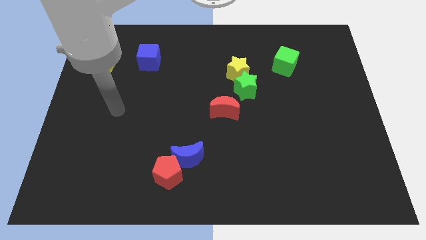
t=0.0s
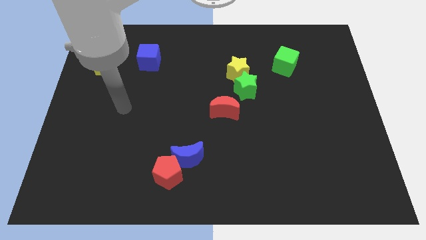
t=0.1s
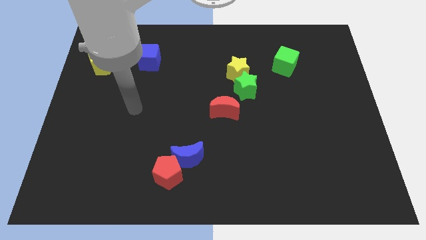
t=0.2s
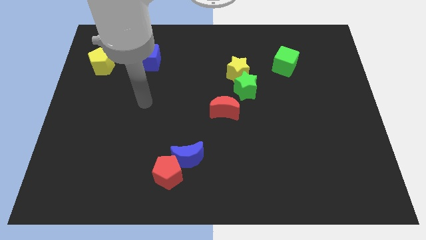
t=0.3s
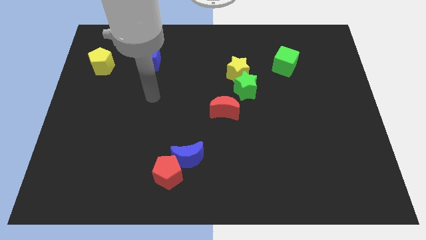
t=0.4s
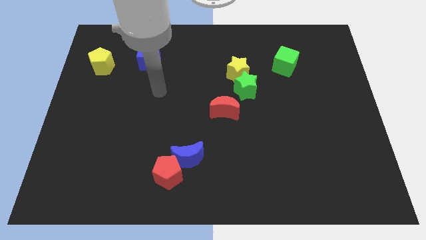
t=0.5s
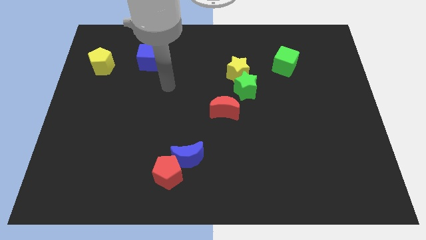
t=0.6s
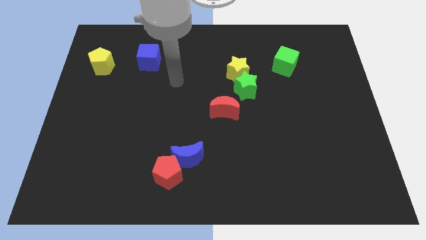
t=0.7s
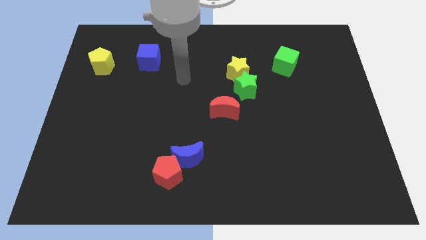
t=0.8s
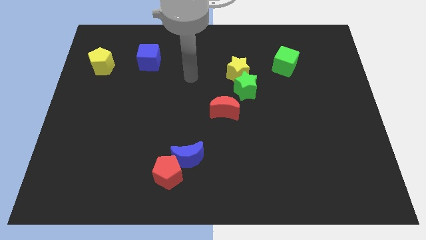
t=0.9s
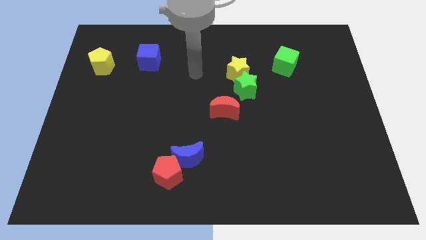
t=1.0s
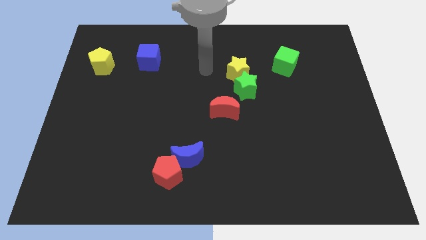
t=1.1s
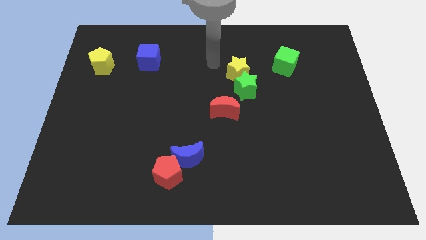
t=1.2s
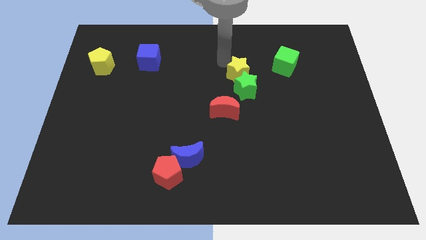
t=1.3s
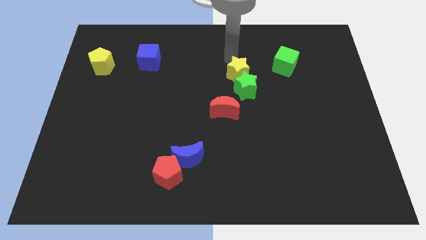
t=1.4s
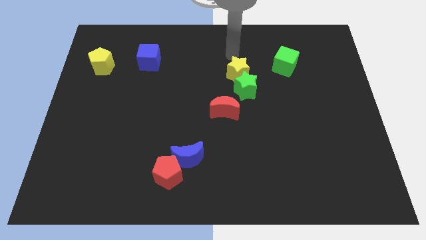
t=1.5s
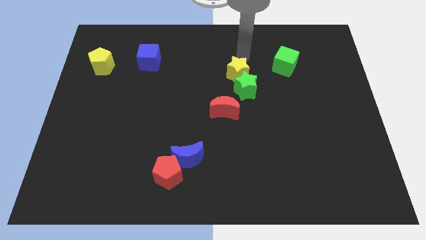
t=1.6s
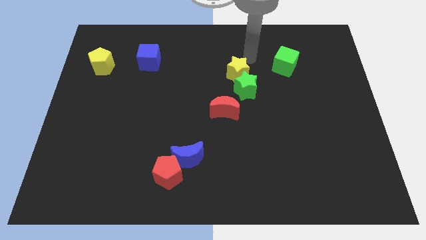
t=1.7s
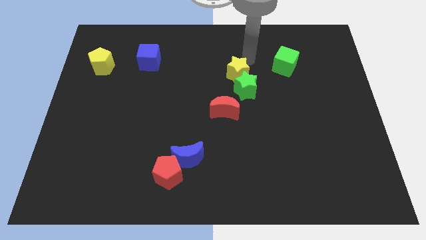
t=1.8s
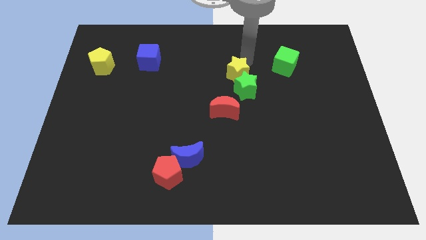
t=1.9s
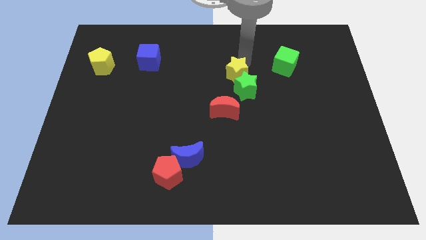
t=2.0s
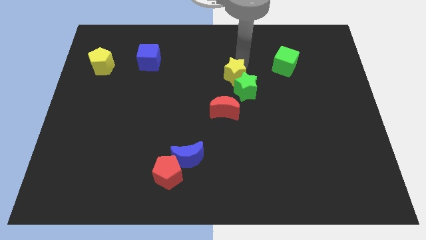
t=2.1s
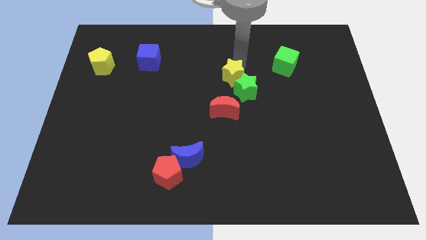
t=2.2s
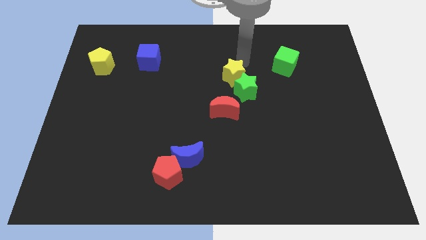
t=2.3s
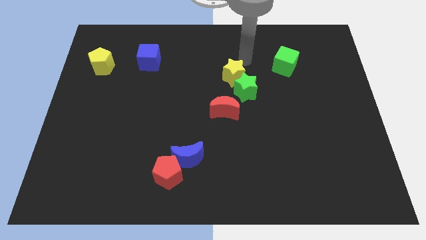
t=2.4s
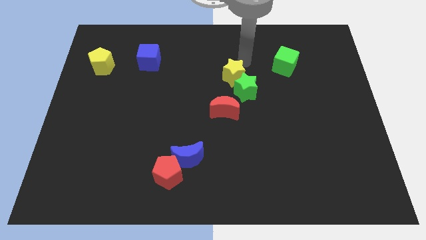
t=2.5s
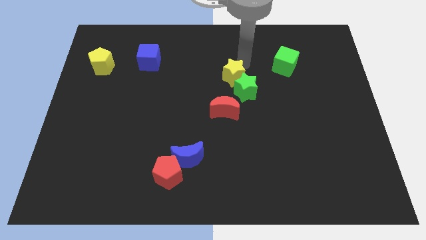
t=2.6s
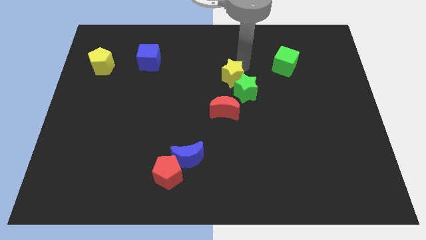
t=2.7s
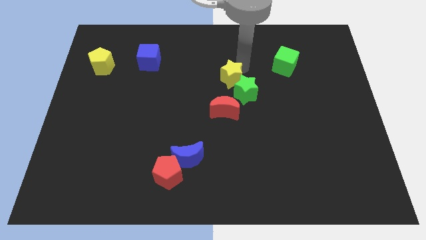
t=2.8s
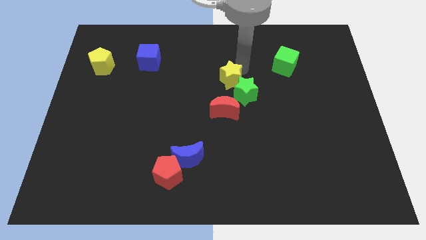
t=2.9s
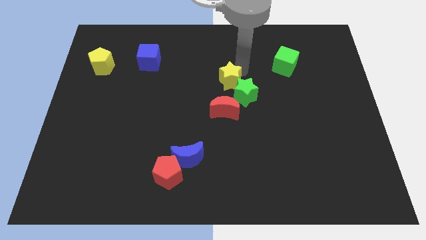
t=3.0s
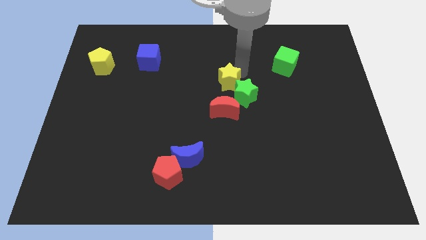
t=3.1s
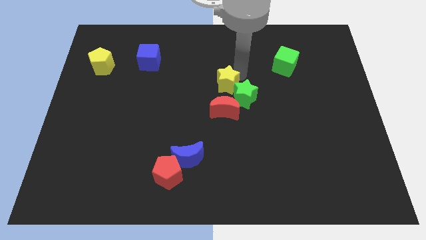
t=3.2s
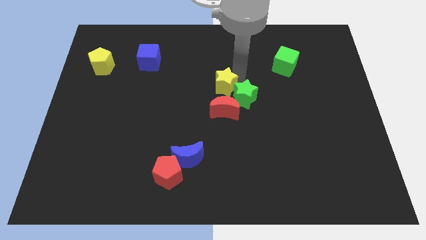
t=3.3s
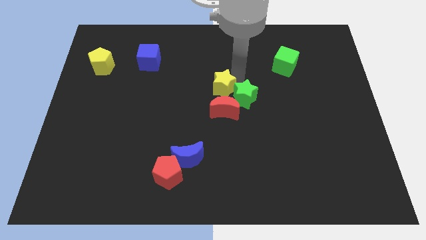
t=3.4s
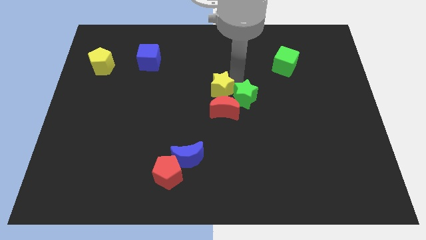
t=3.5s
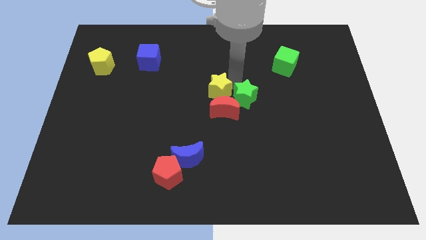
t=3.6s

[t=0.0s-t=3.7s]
slightly slide the yellow star down and left diagonally

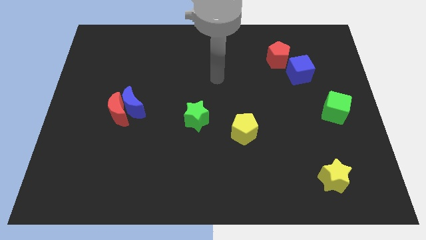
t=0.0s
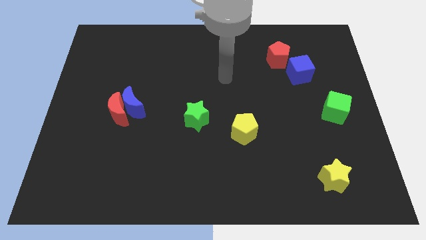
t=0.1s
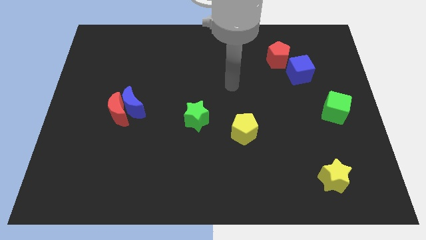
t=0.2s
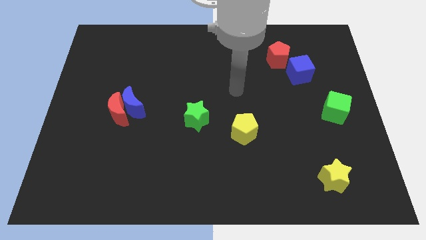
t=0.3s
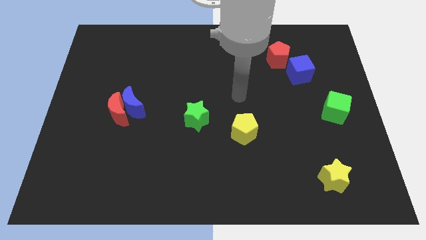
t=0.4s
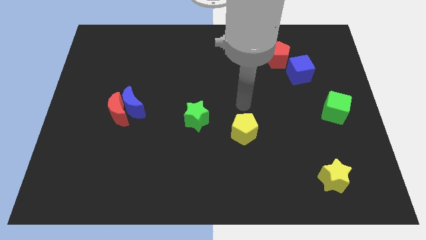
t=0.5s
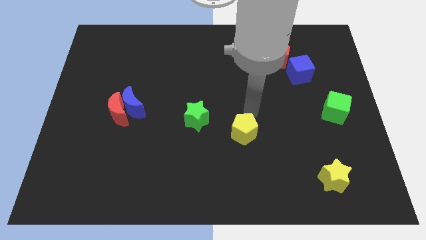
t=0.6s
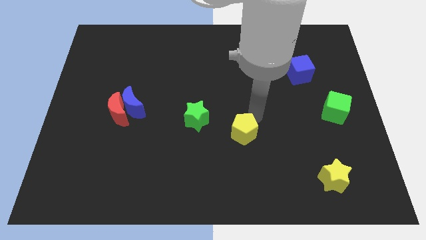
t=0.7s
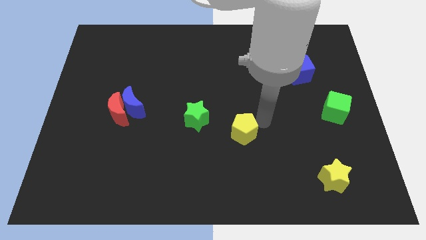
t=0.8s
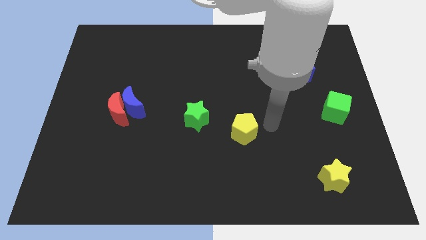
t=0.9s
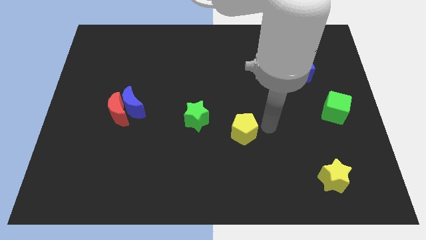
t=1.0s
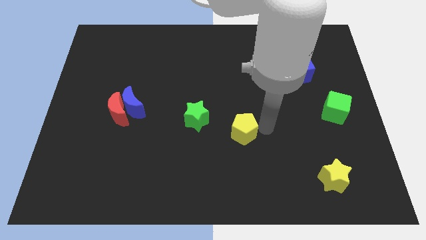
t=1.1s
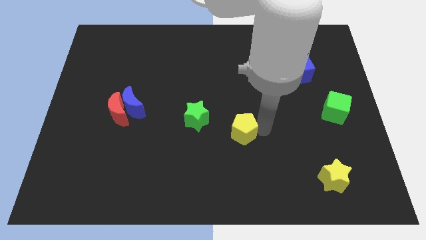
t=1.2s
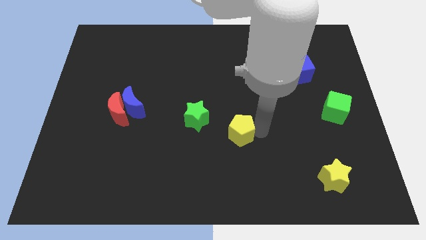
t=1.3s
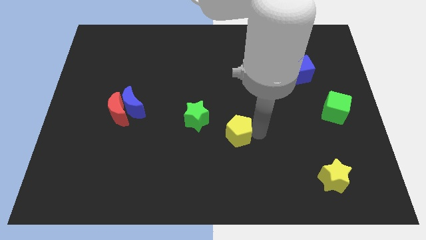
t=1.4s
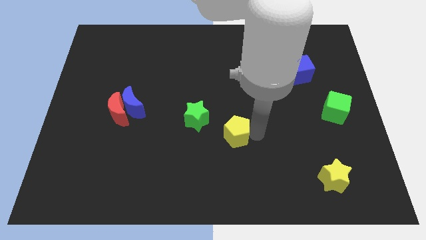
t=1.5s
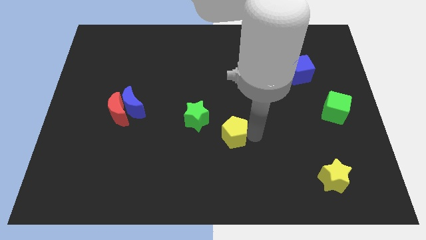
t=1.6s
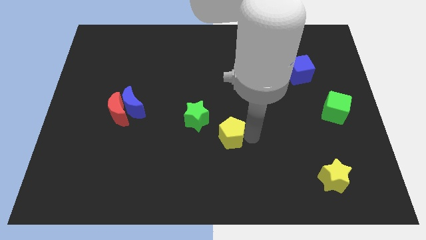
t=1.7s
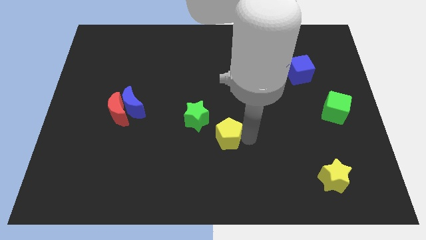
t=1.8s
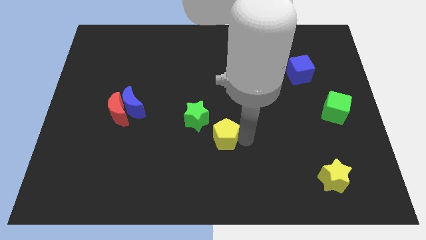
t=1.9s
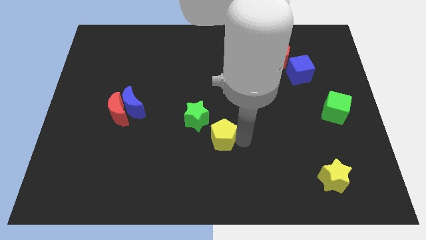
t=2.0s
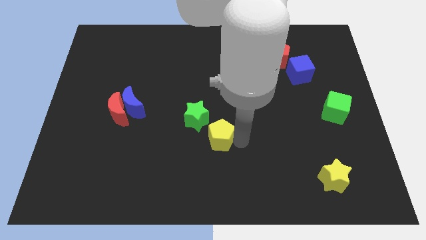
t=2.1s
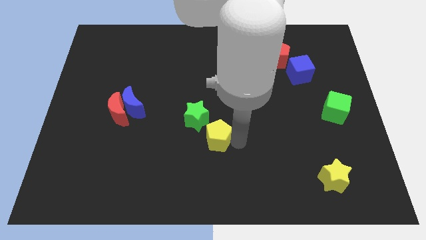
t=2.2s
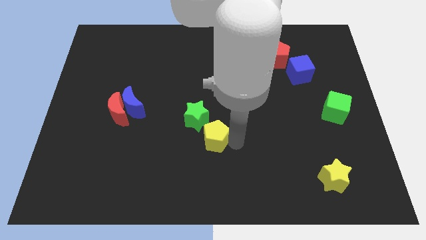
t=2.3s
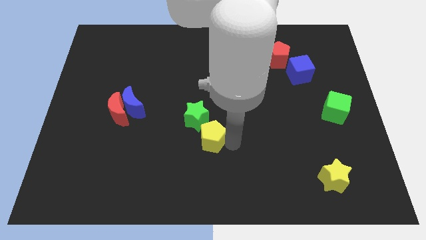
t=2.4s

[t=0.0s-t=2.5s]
push the yellow pentagon slightly to the left

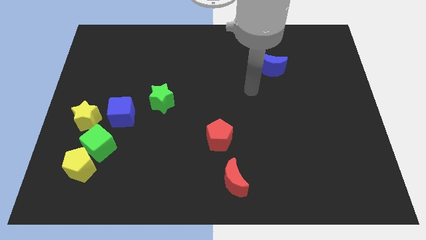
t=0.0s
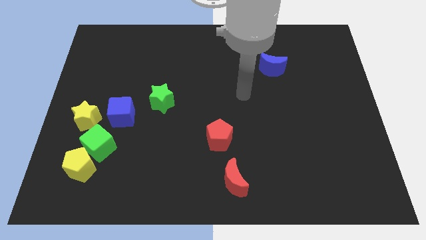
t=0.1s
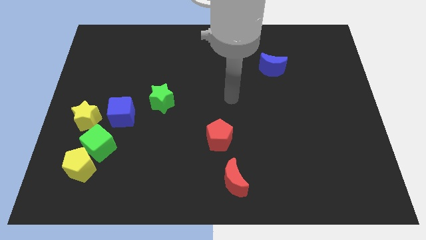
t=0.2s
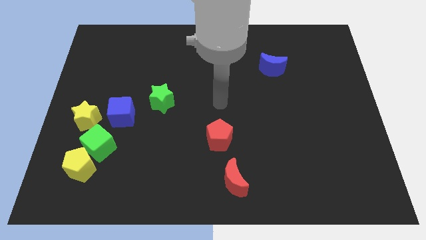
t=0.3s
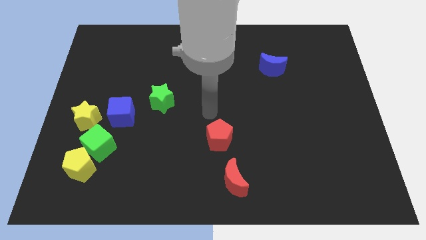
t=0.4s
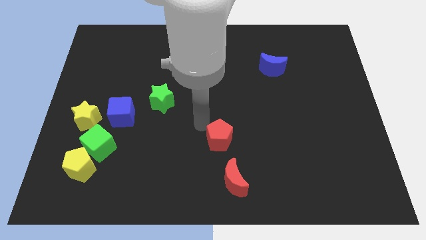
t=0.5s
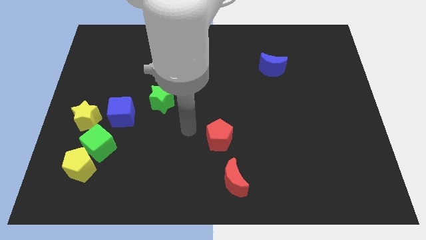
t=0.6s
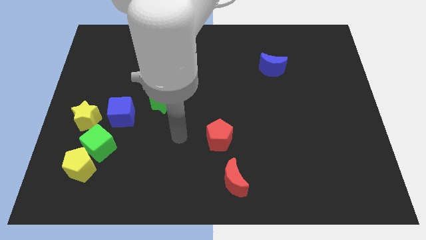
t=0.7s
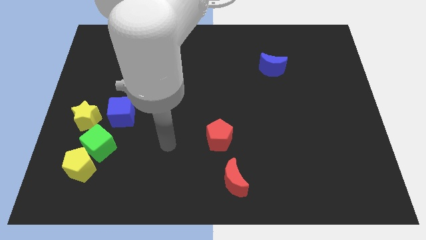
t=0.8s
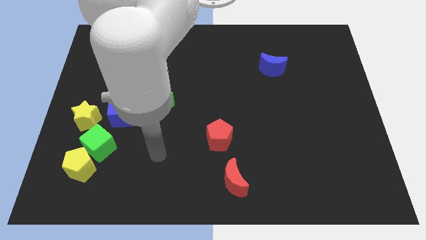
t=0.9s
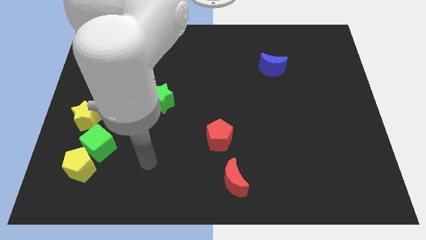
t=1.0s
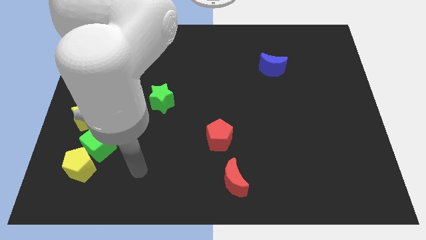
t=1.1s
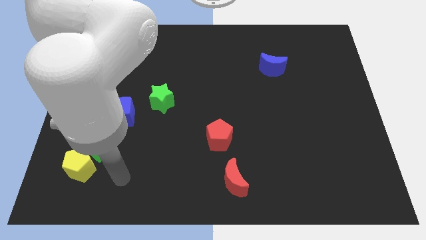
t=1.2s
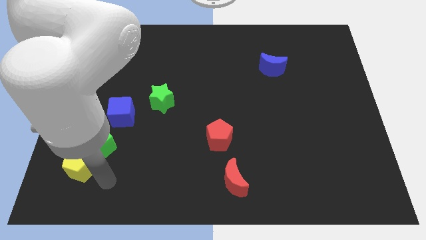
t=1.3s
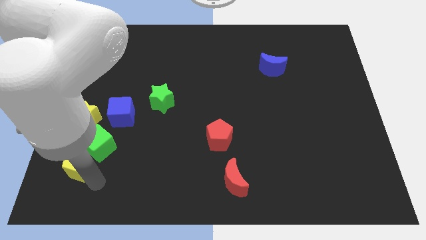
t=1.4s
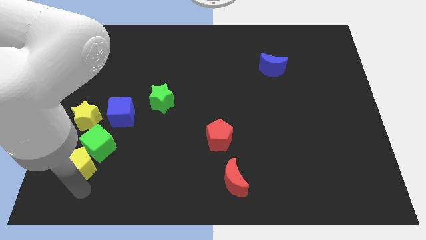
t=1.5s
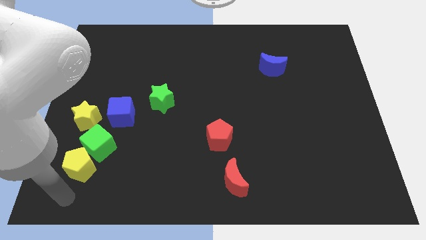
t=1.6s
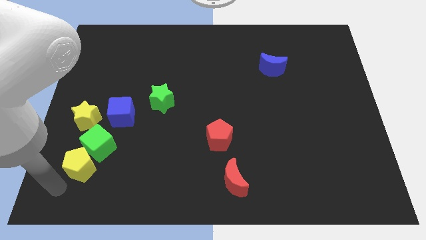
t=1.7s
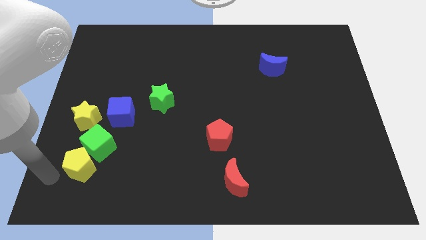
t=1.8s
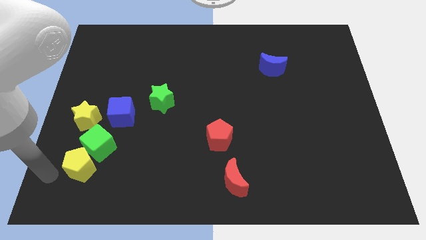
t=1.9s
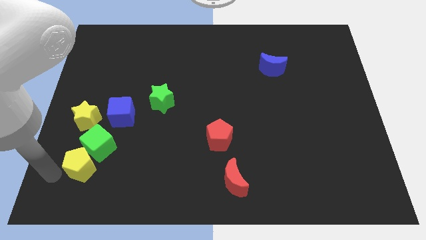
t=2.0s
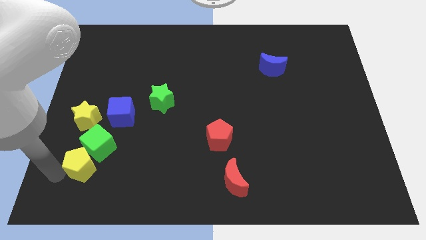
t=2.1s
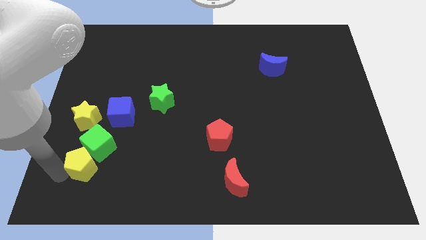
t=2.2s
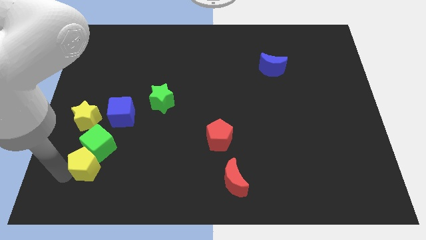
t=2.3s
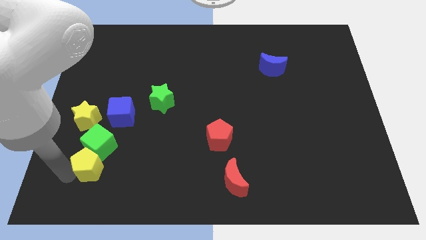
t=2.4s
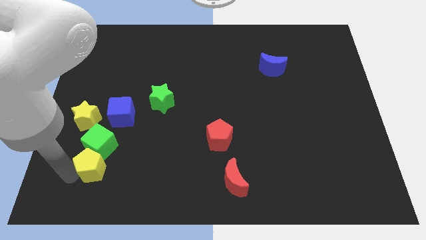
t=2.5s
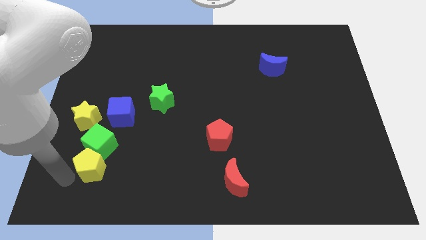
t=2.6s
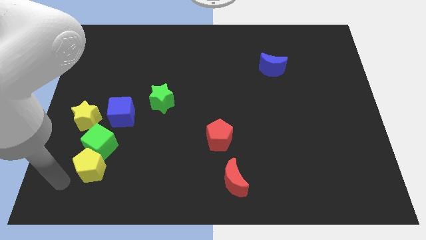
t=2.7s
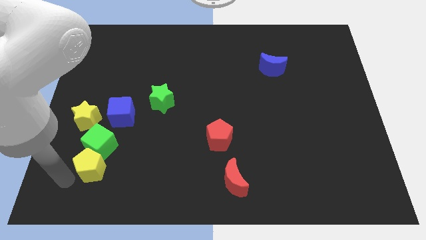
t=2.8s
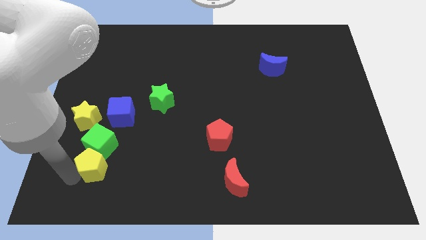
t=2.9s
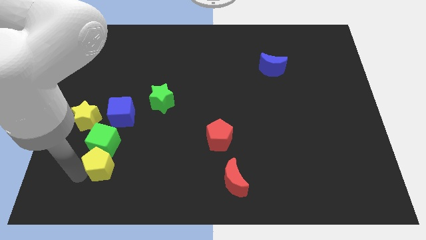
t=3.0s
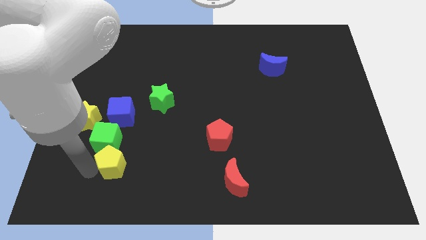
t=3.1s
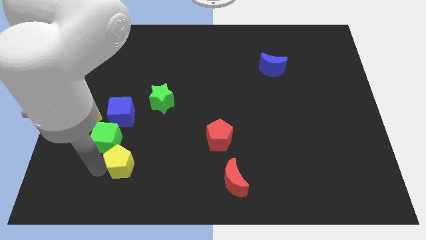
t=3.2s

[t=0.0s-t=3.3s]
slide the yellow pentagon a little to the right
